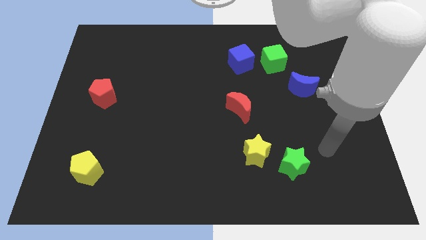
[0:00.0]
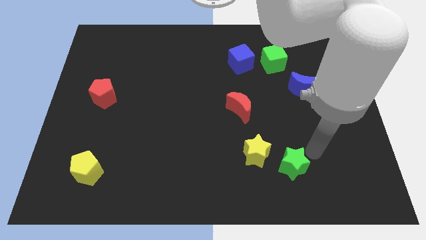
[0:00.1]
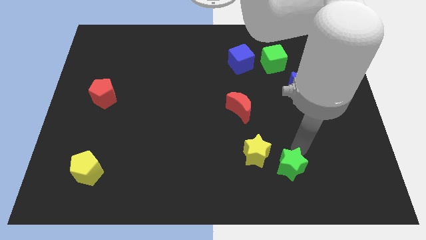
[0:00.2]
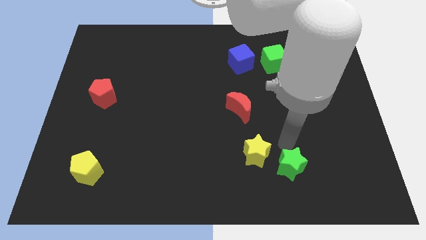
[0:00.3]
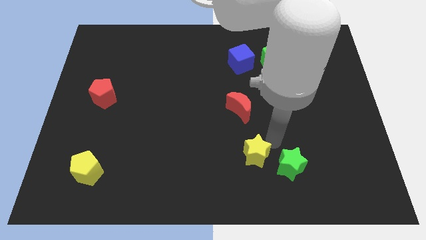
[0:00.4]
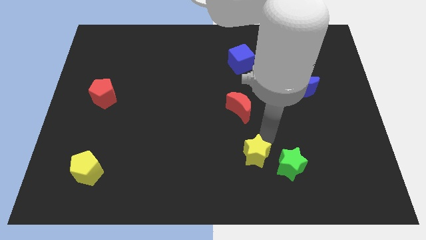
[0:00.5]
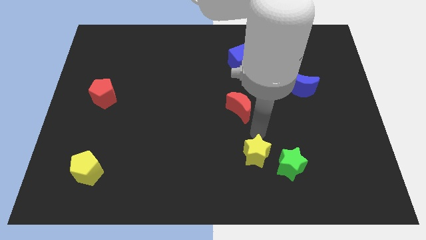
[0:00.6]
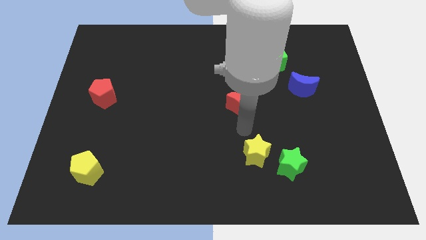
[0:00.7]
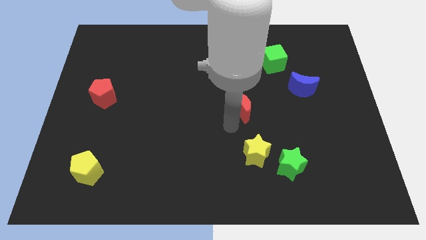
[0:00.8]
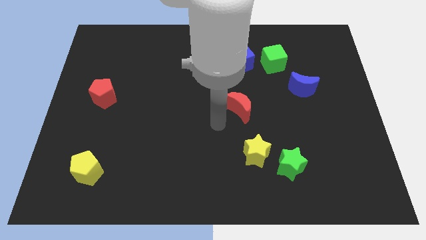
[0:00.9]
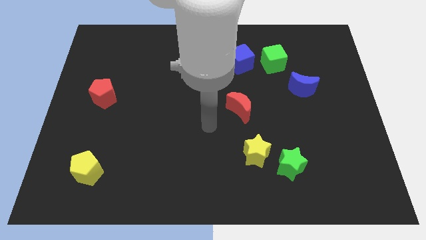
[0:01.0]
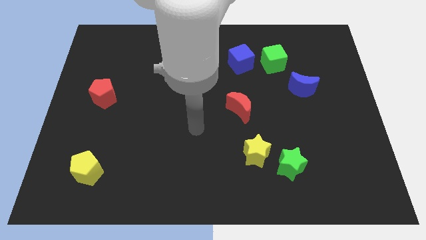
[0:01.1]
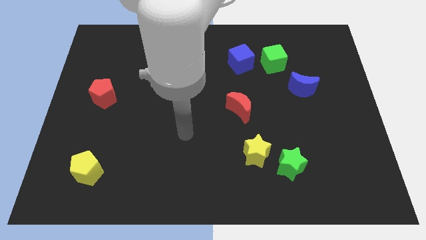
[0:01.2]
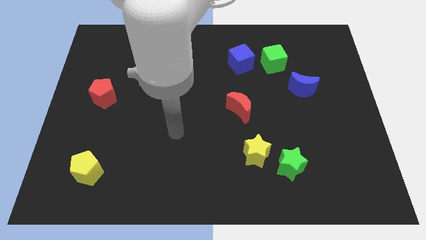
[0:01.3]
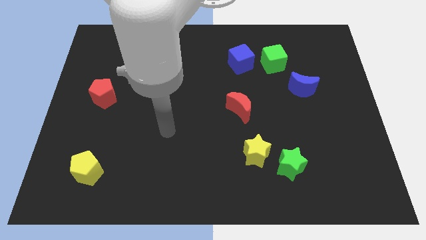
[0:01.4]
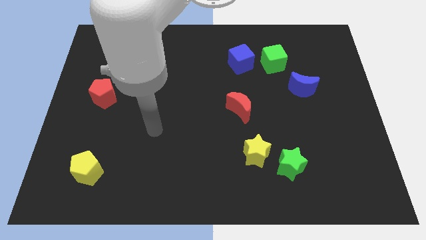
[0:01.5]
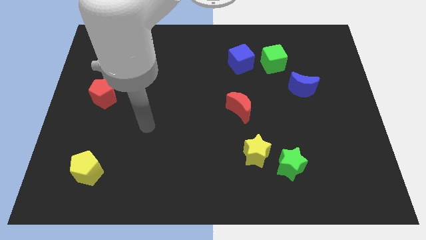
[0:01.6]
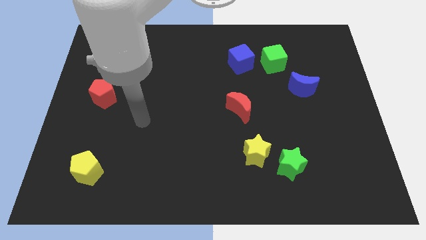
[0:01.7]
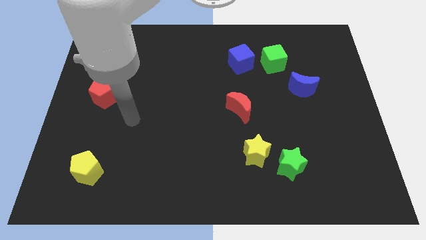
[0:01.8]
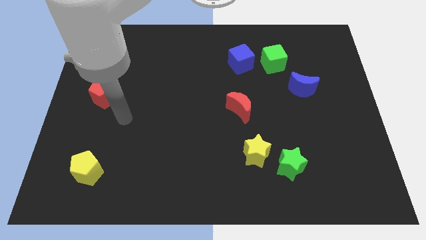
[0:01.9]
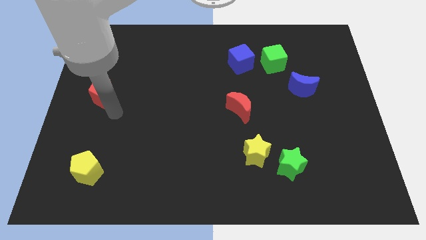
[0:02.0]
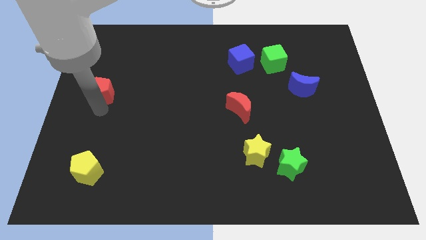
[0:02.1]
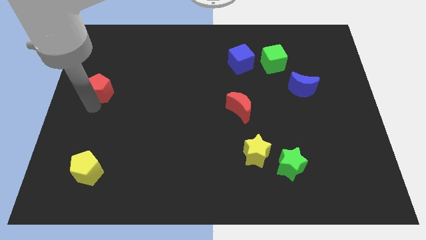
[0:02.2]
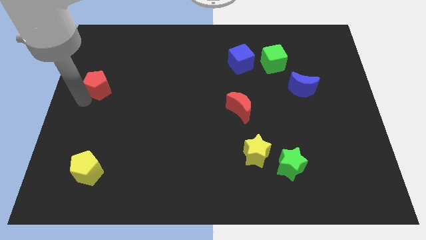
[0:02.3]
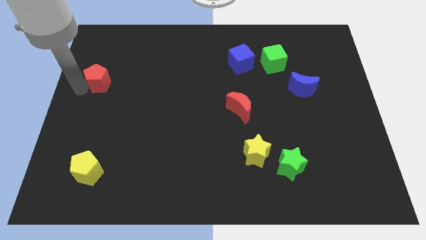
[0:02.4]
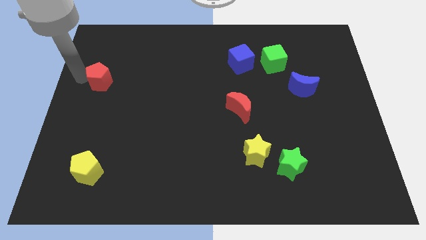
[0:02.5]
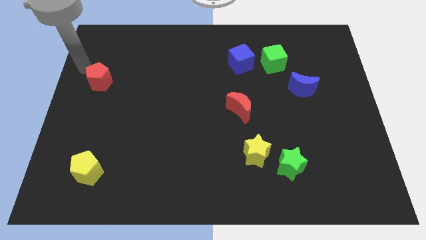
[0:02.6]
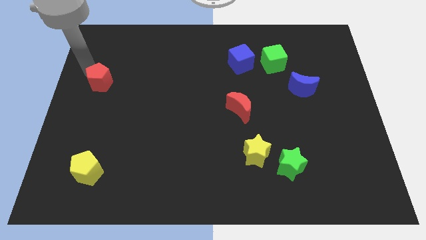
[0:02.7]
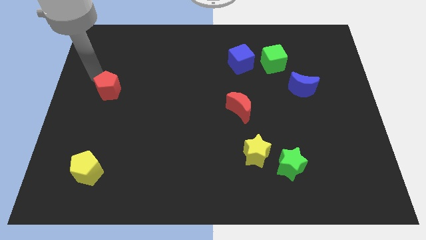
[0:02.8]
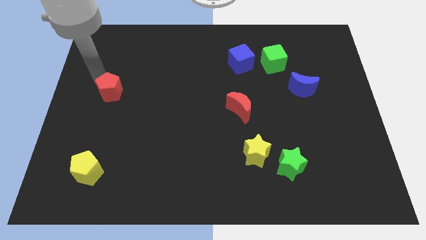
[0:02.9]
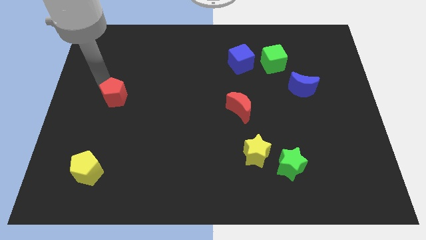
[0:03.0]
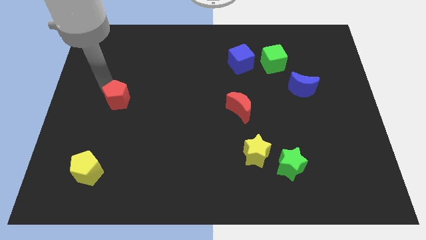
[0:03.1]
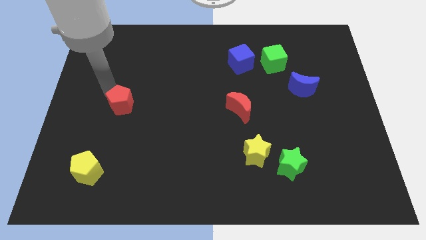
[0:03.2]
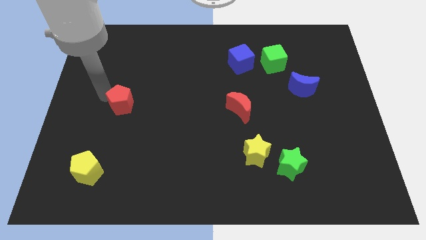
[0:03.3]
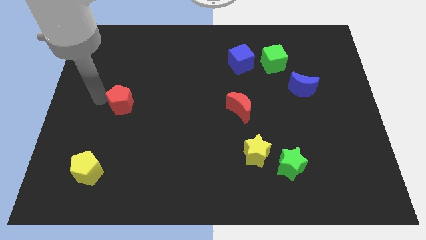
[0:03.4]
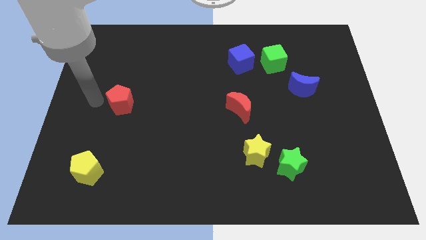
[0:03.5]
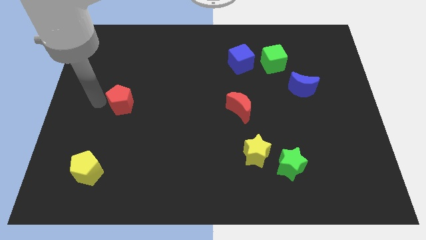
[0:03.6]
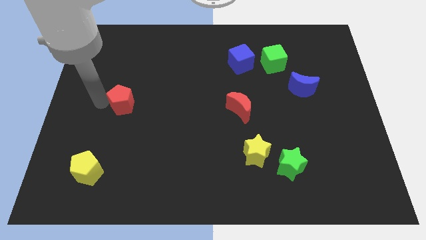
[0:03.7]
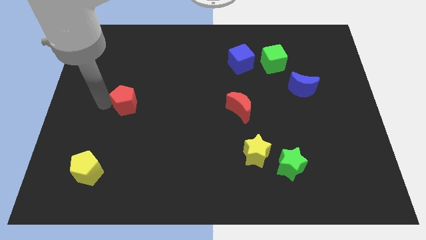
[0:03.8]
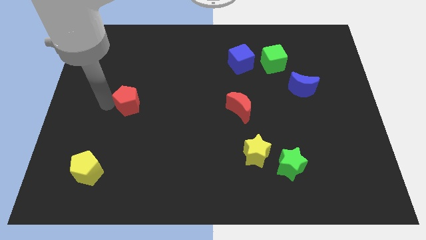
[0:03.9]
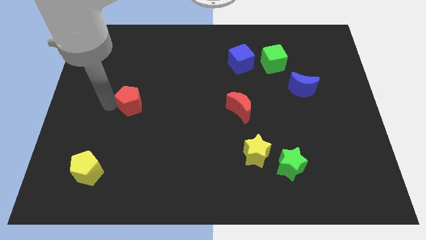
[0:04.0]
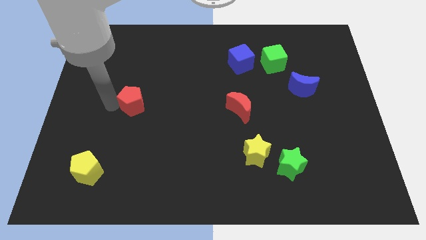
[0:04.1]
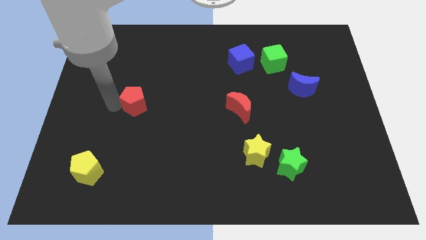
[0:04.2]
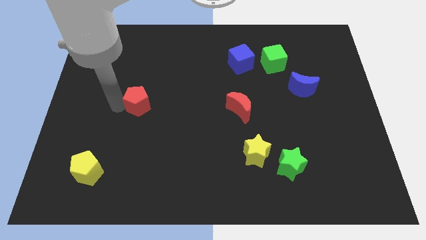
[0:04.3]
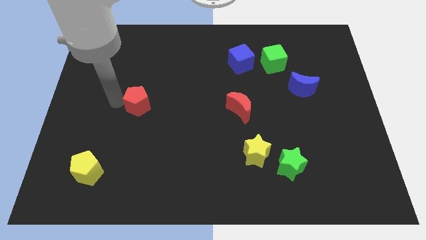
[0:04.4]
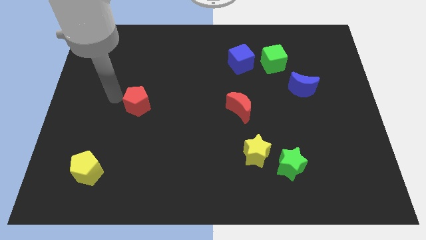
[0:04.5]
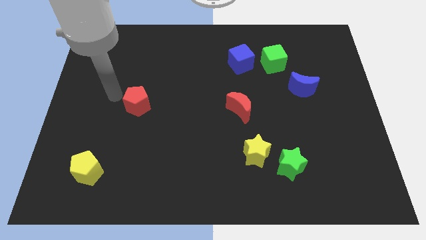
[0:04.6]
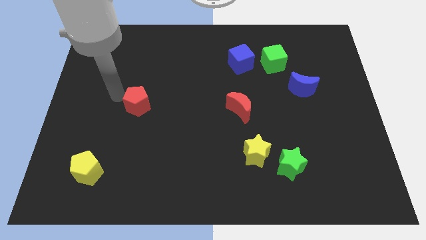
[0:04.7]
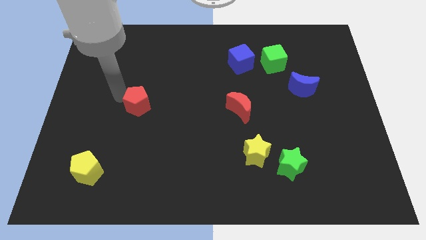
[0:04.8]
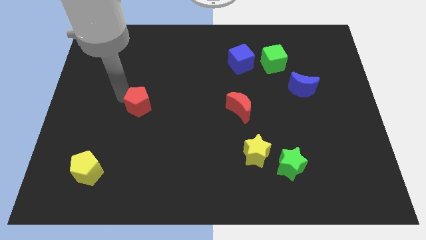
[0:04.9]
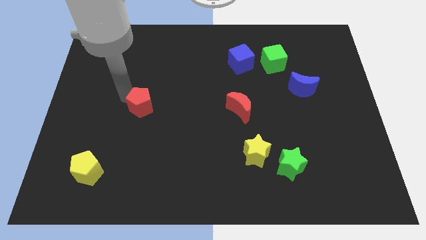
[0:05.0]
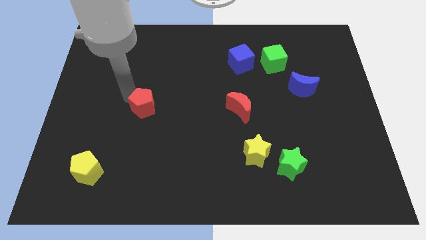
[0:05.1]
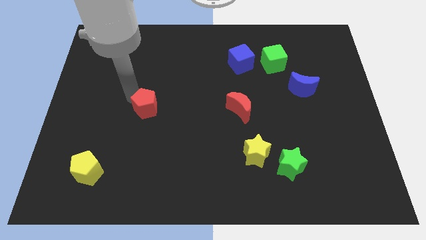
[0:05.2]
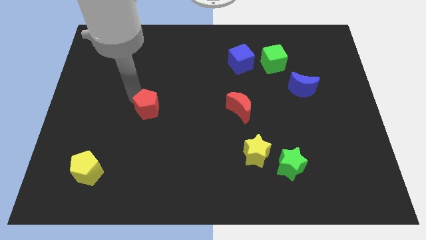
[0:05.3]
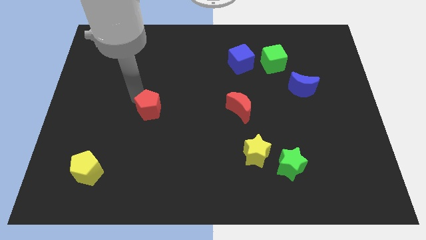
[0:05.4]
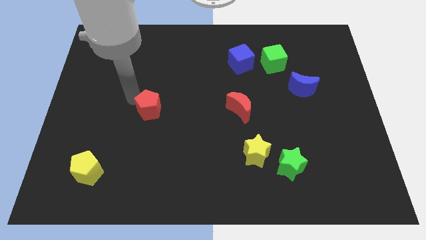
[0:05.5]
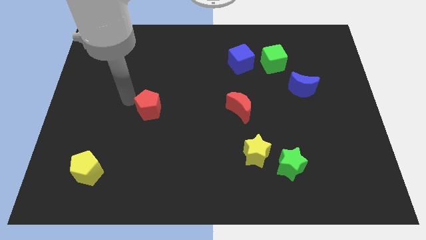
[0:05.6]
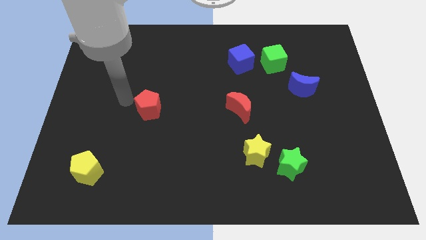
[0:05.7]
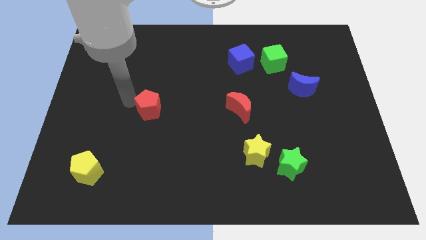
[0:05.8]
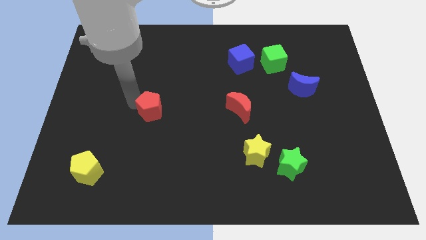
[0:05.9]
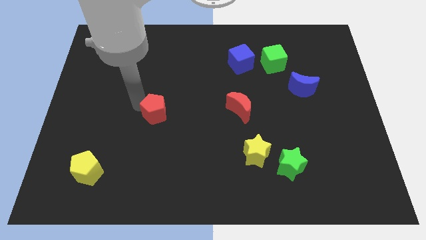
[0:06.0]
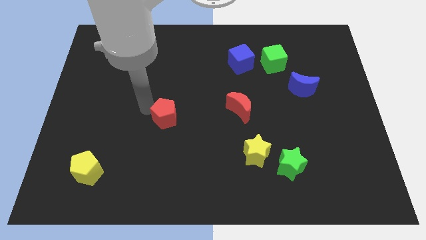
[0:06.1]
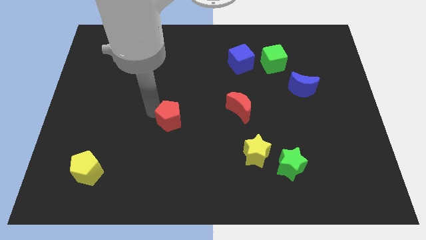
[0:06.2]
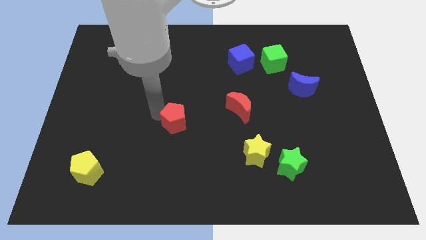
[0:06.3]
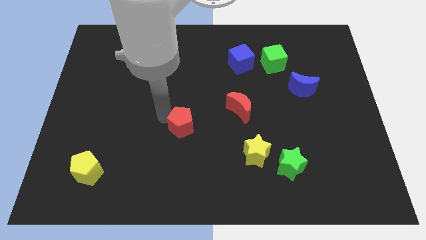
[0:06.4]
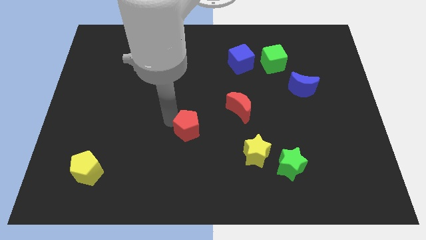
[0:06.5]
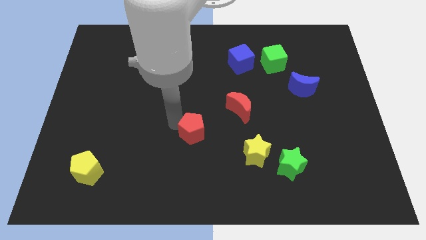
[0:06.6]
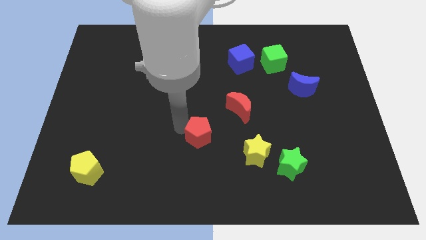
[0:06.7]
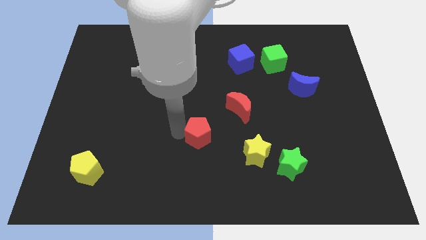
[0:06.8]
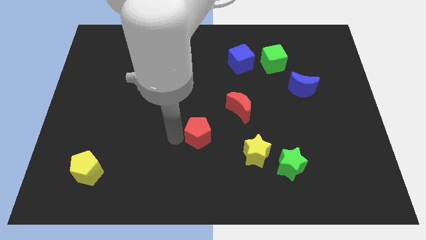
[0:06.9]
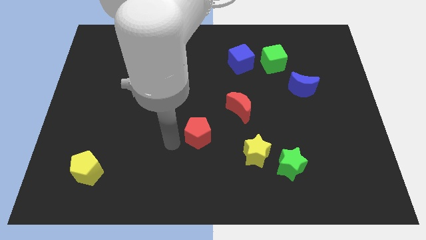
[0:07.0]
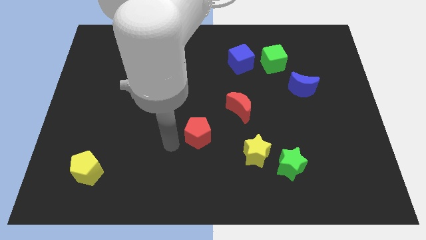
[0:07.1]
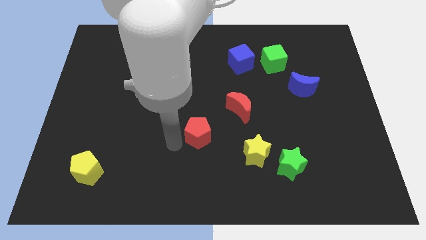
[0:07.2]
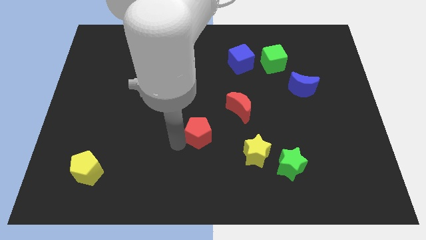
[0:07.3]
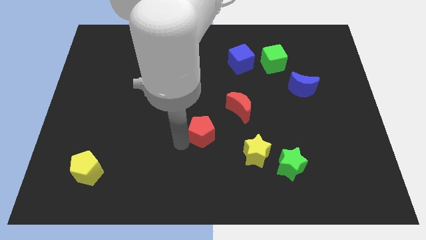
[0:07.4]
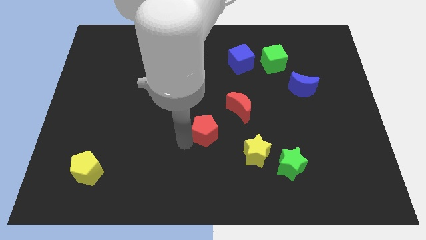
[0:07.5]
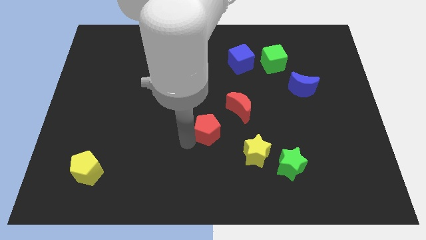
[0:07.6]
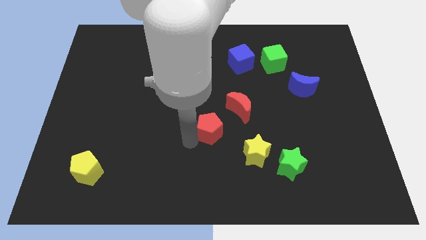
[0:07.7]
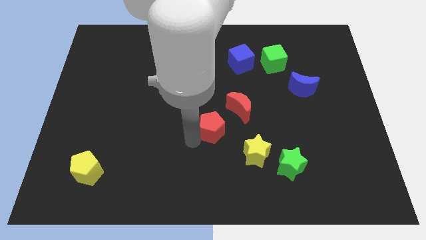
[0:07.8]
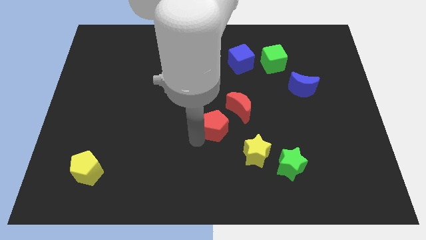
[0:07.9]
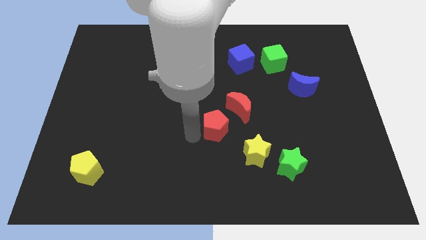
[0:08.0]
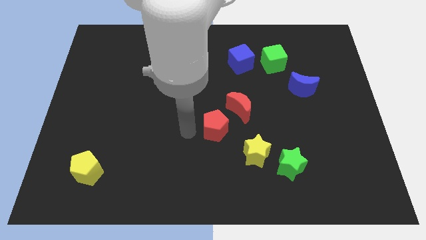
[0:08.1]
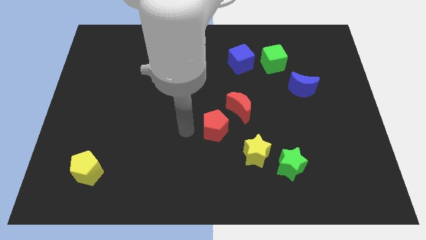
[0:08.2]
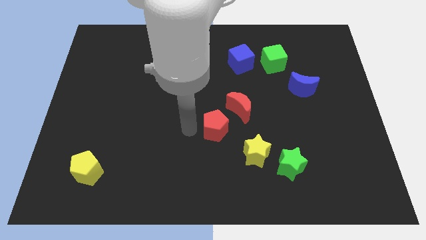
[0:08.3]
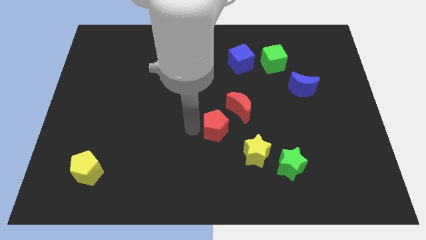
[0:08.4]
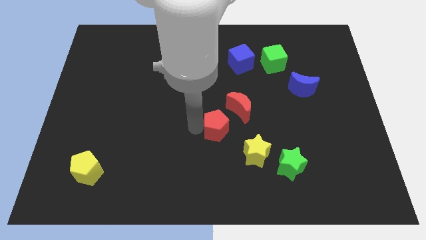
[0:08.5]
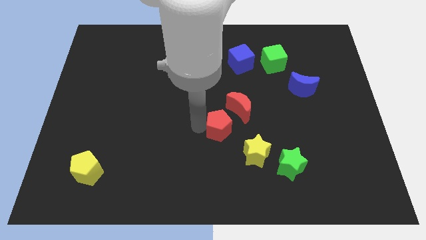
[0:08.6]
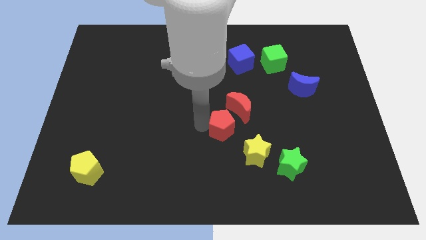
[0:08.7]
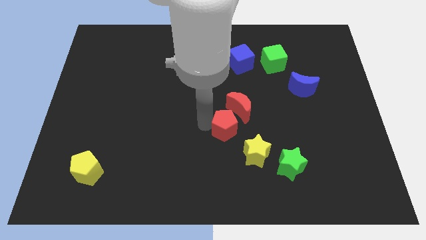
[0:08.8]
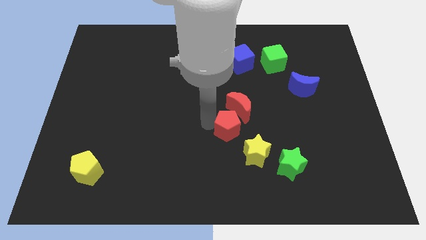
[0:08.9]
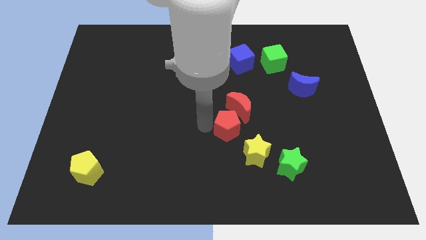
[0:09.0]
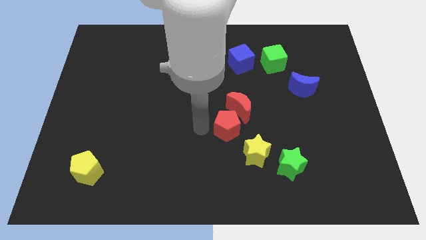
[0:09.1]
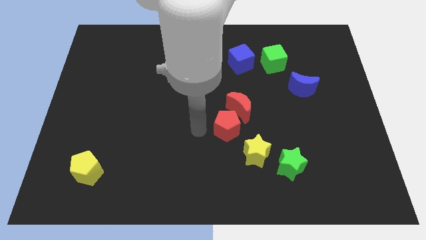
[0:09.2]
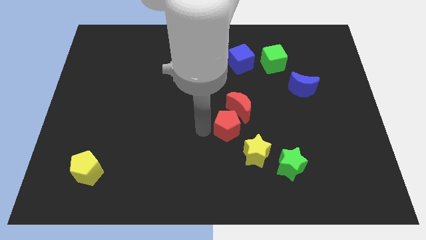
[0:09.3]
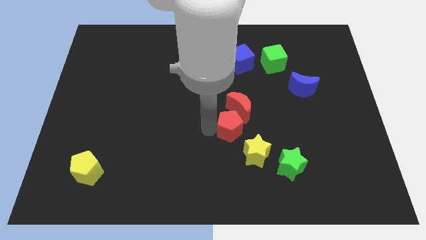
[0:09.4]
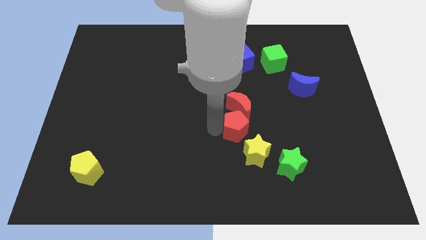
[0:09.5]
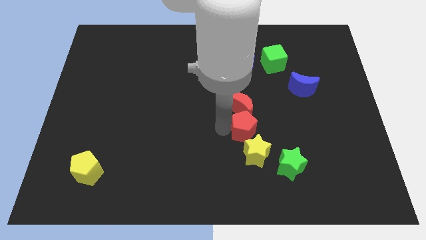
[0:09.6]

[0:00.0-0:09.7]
push the red pentagon diagonally down and to the right of the red moon
